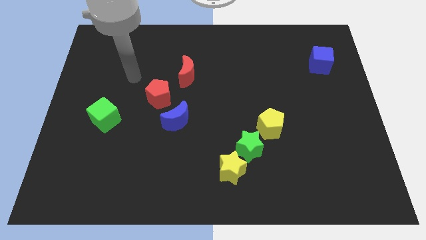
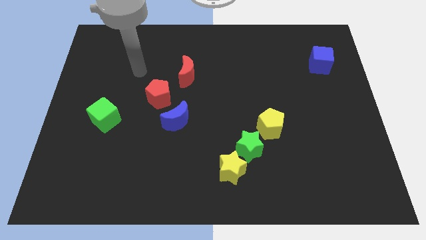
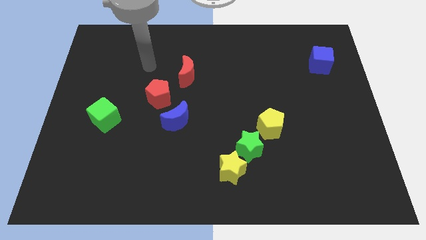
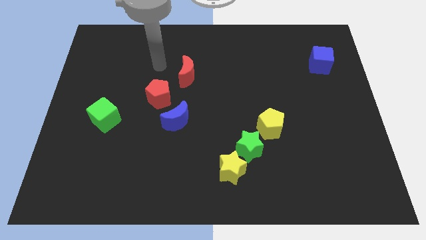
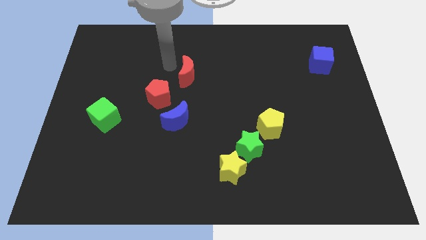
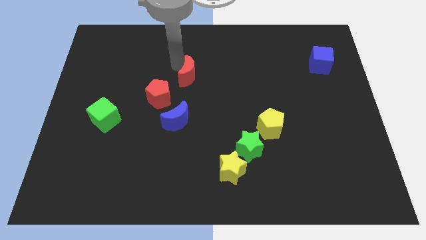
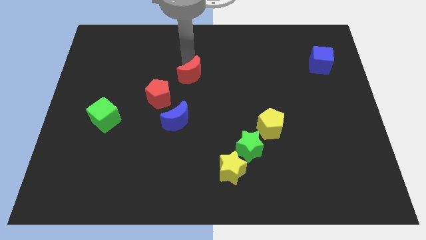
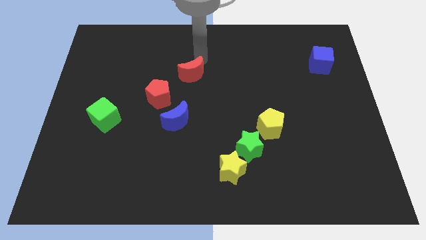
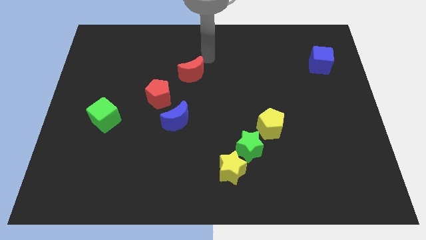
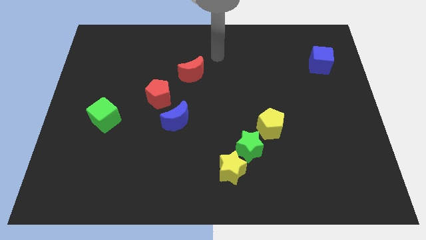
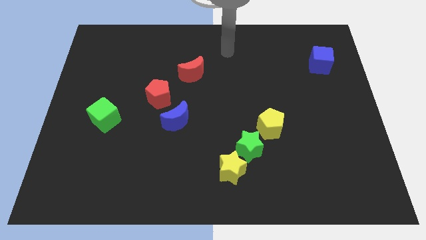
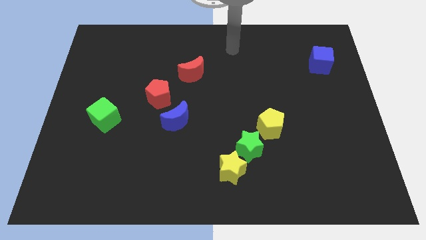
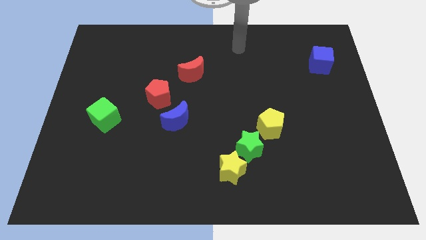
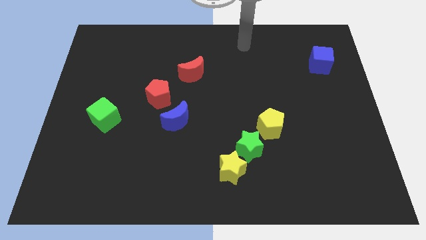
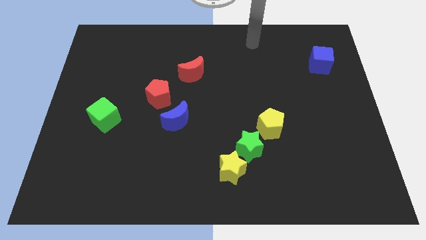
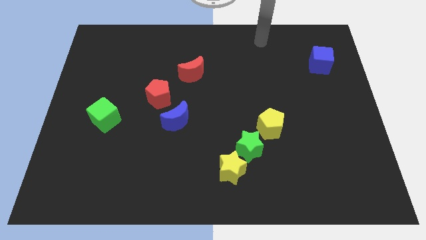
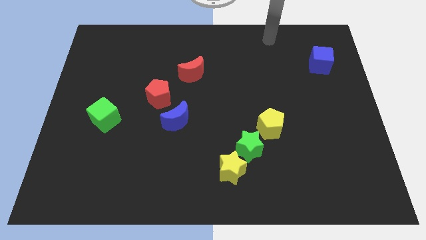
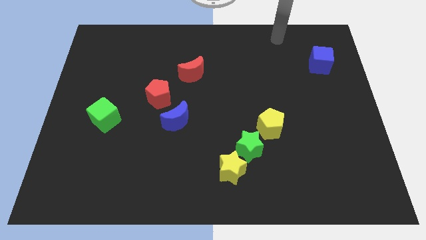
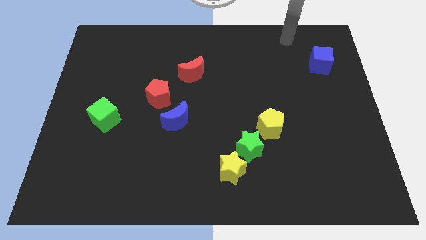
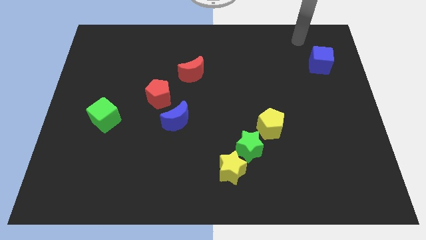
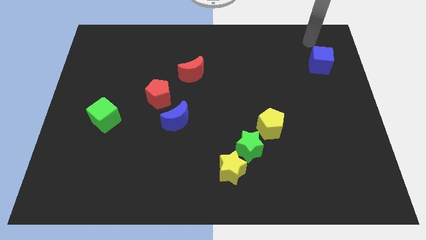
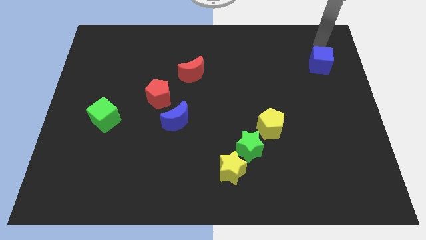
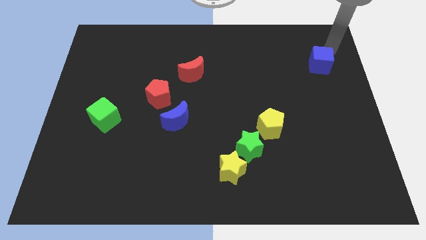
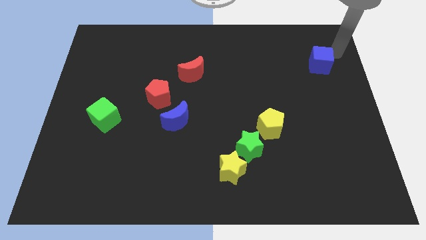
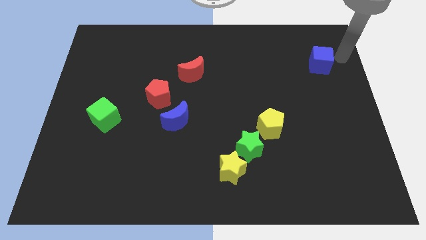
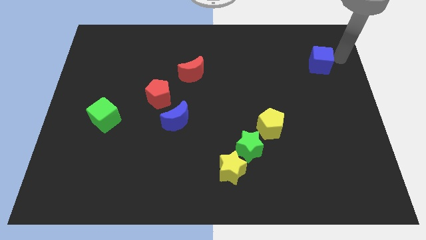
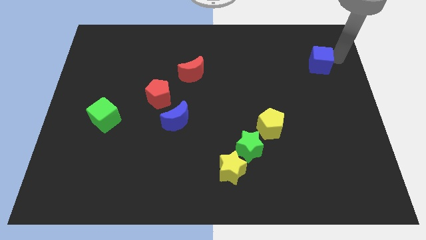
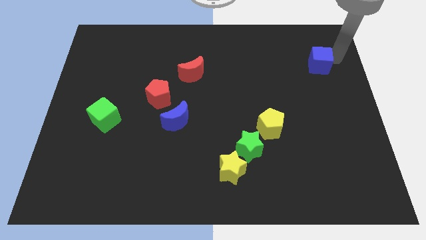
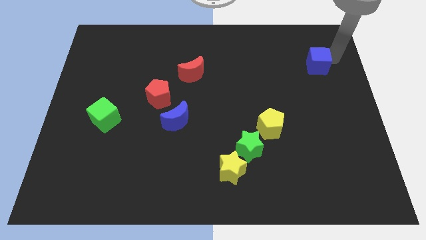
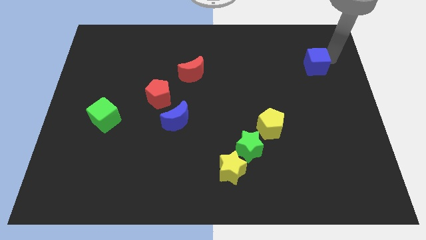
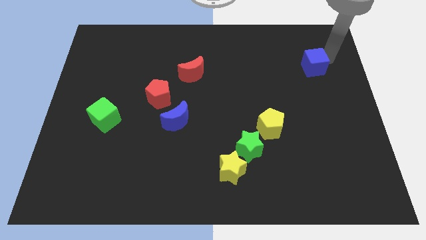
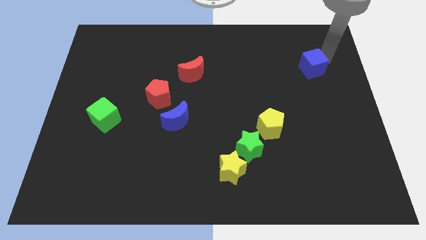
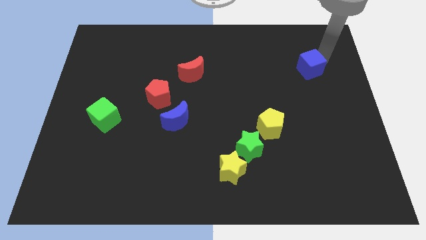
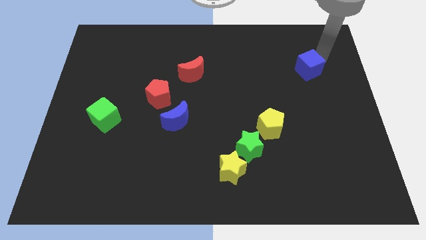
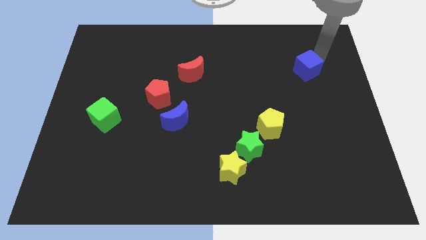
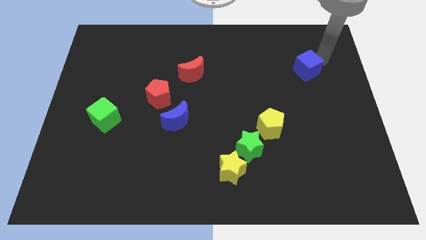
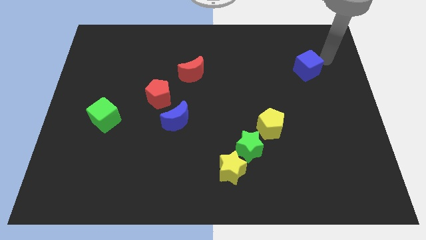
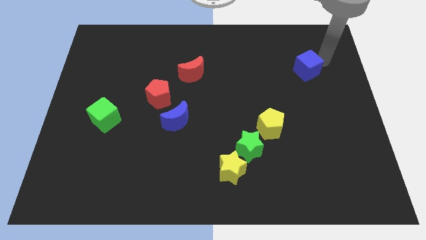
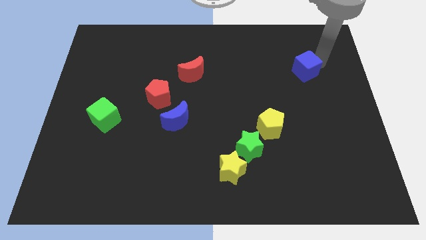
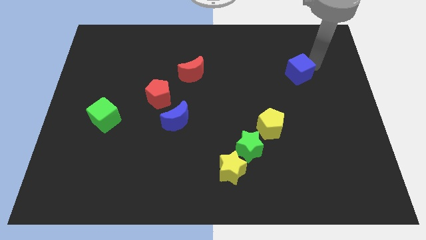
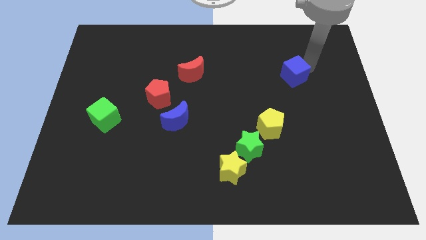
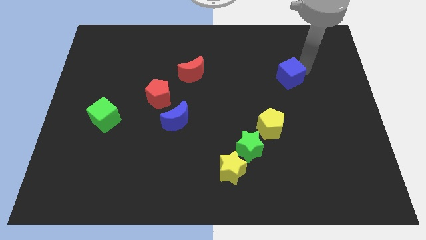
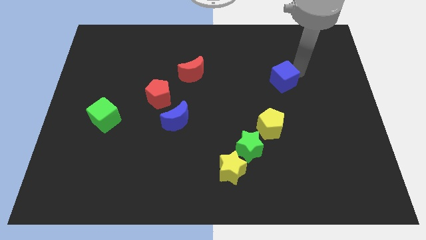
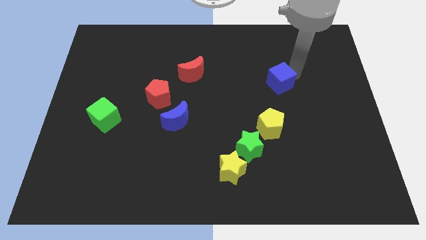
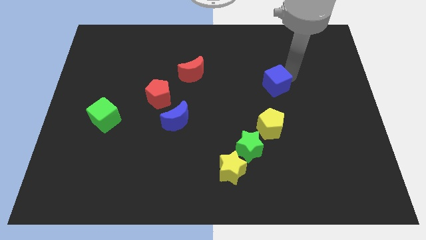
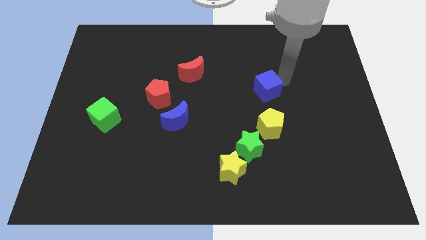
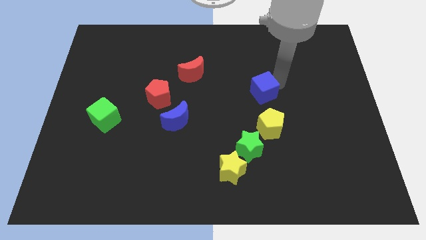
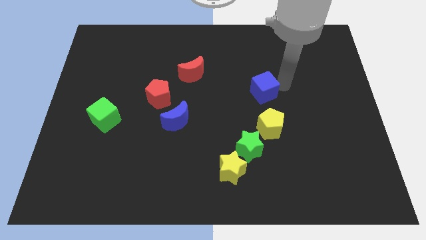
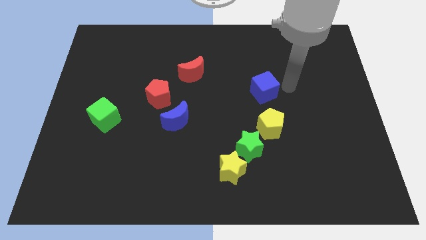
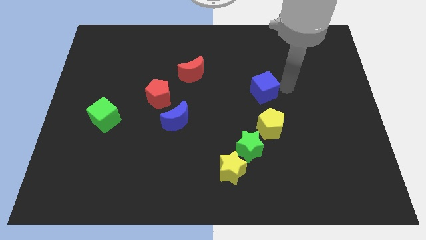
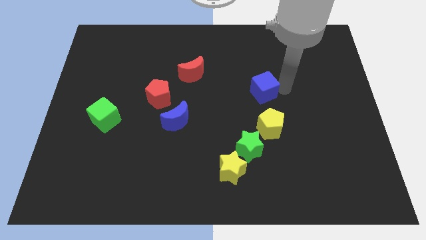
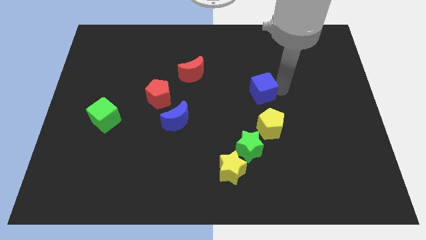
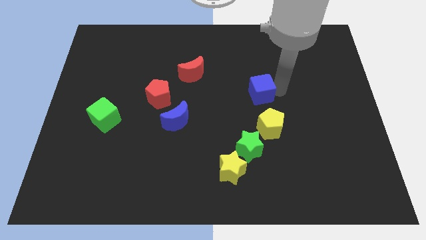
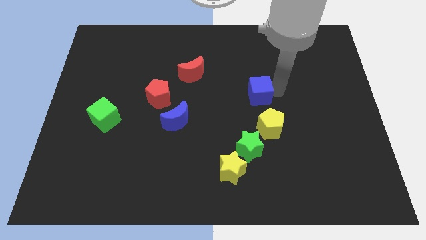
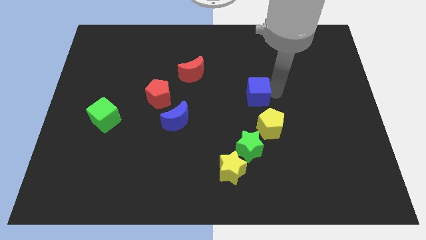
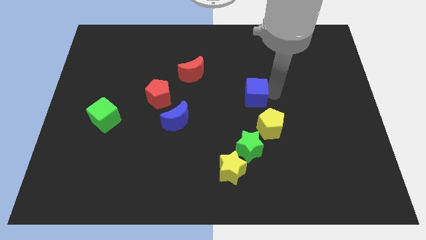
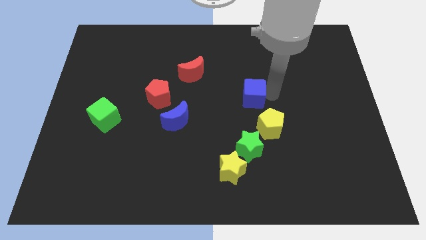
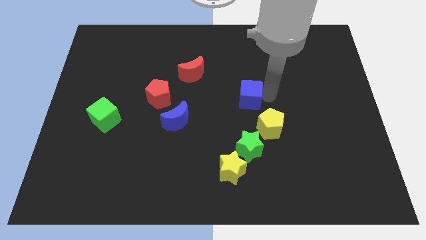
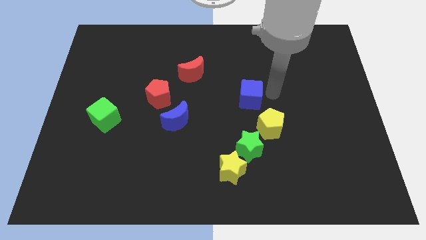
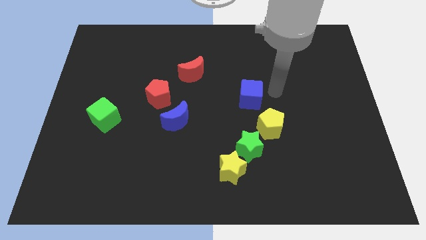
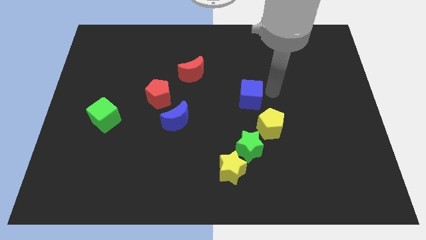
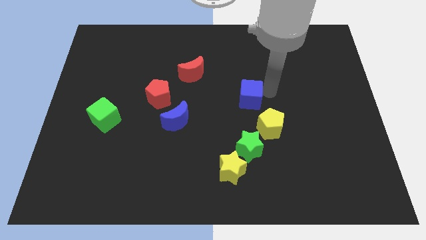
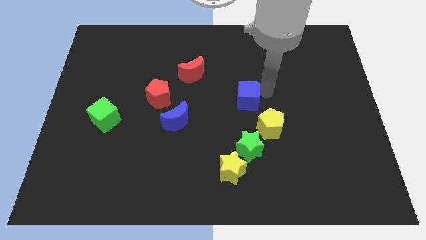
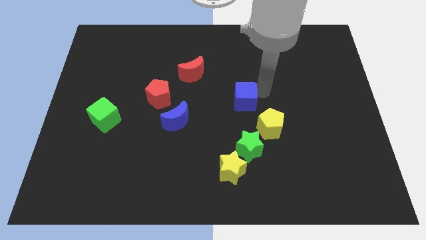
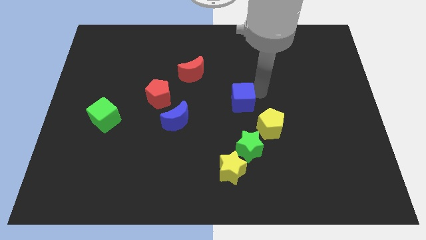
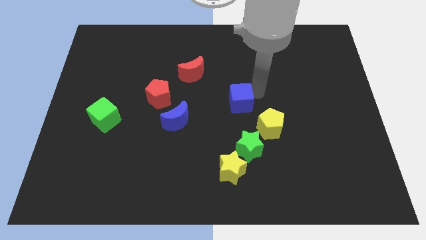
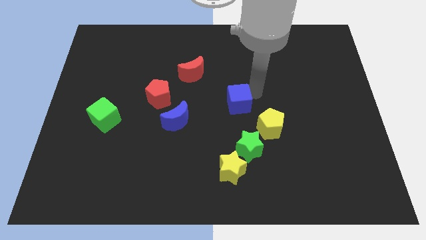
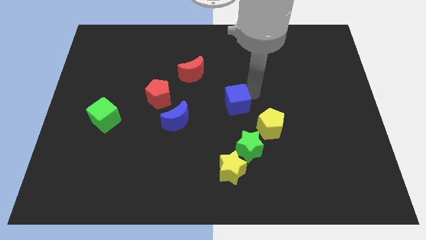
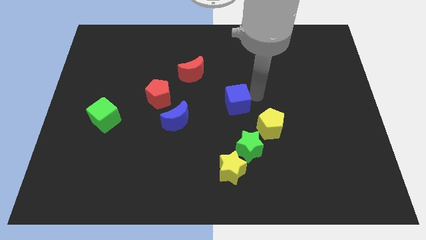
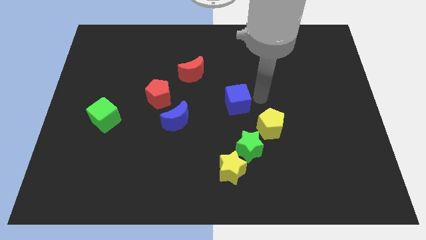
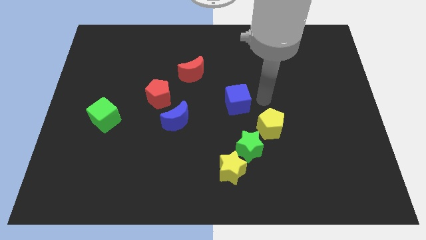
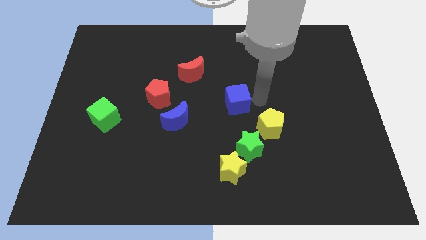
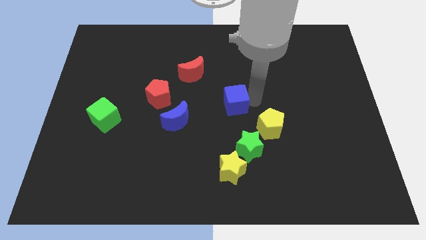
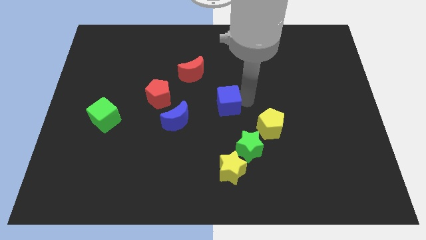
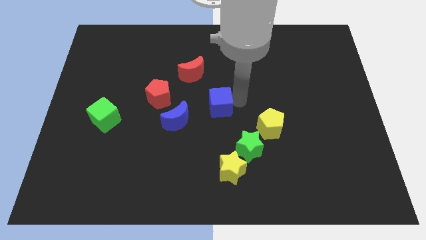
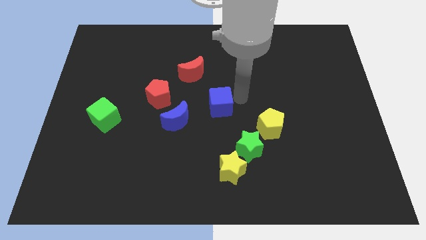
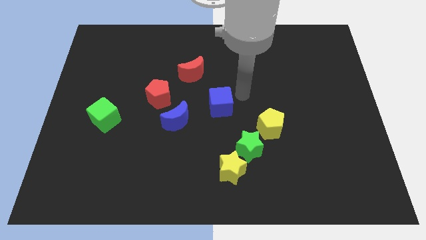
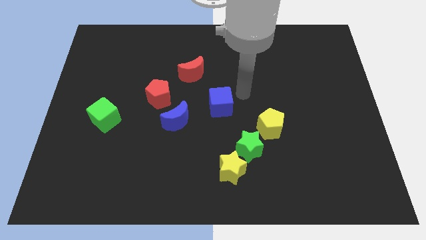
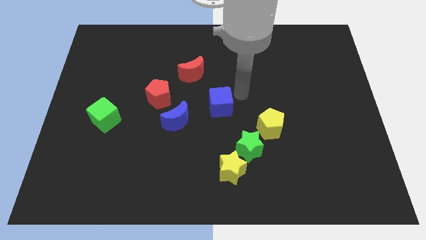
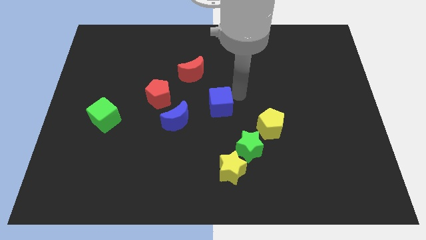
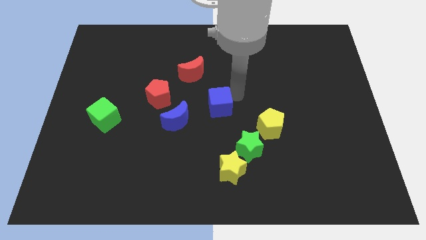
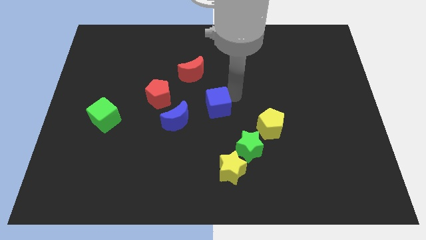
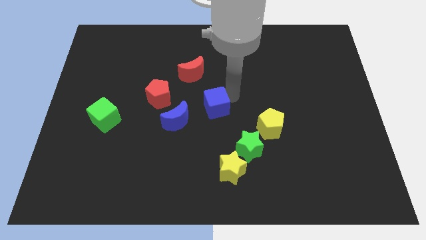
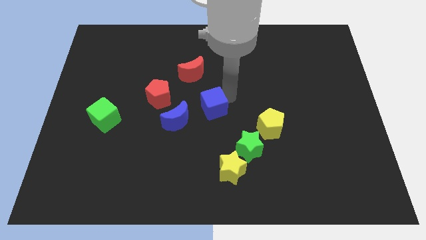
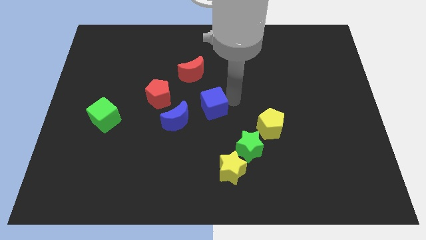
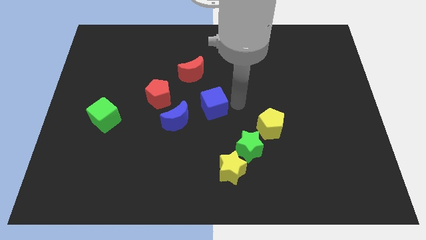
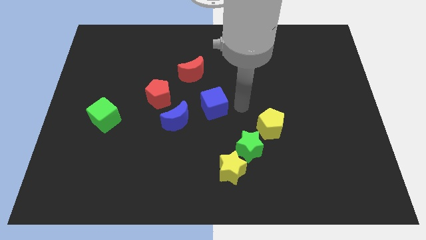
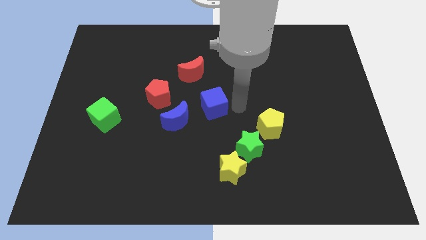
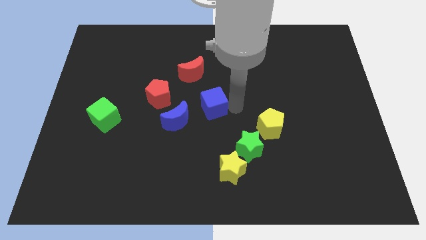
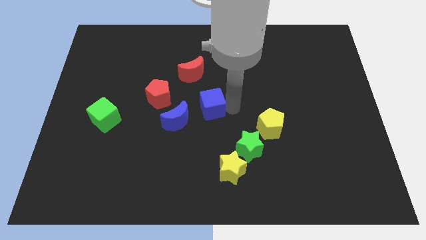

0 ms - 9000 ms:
put the blue cube to the bottom side of the red moon
